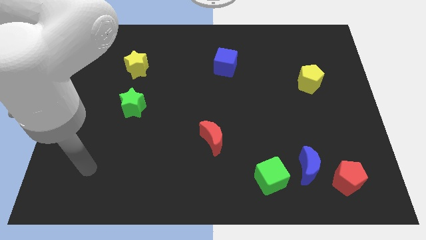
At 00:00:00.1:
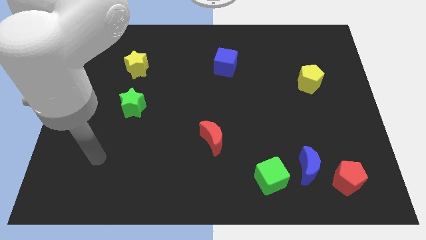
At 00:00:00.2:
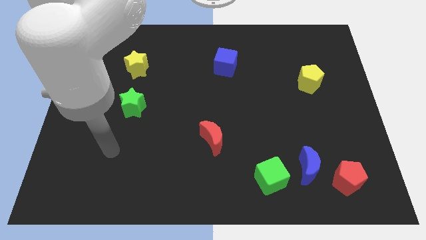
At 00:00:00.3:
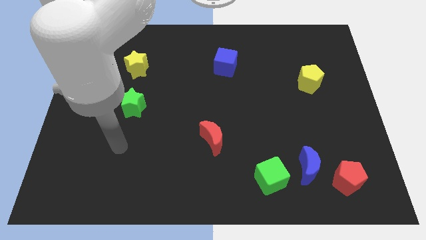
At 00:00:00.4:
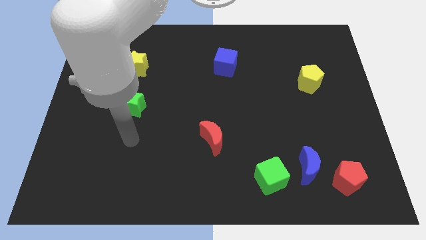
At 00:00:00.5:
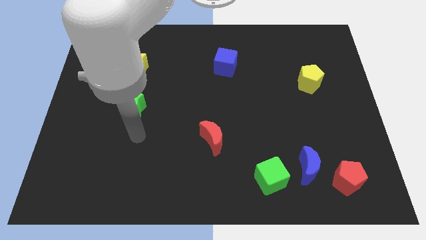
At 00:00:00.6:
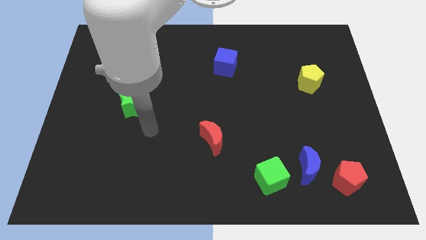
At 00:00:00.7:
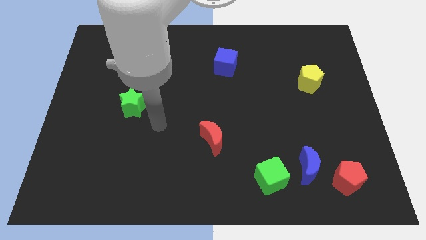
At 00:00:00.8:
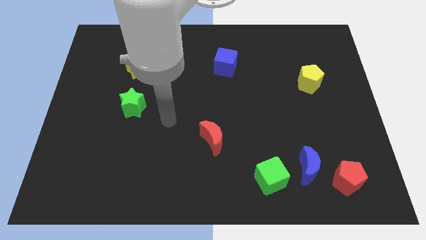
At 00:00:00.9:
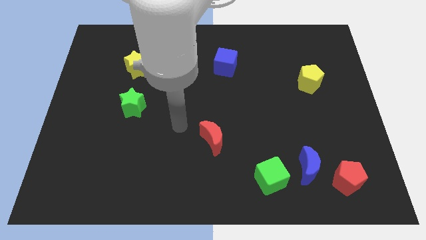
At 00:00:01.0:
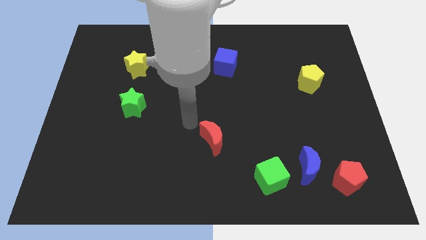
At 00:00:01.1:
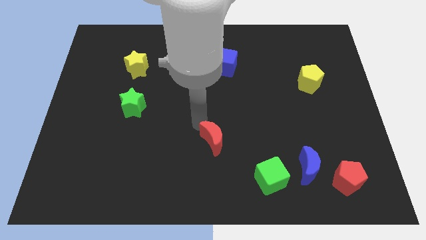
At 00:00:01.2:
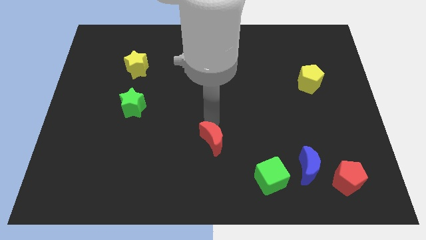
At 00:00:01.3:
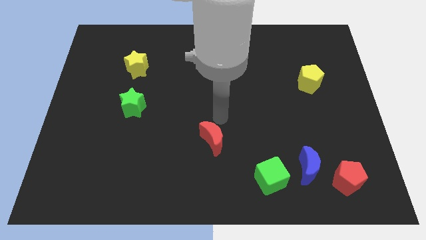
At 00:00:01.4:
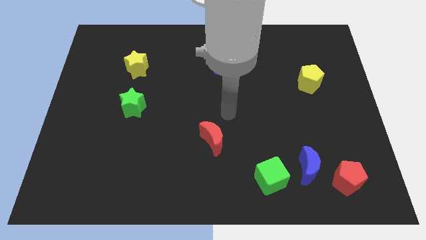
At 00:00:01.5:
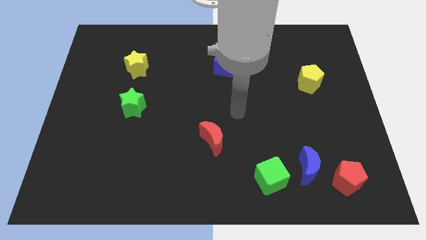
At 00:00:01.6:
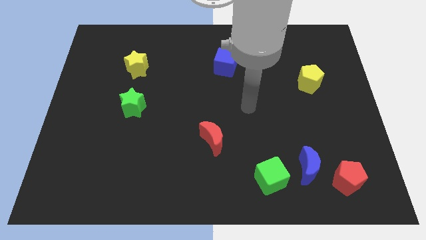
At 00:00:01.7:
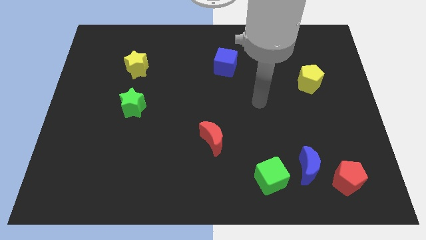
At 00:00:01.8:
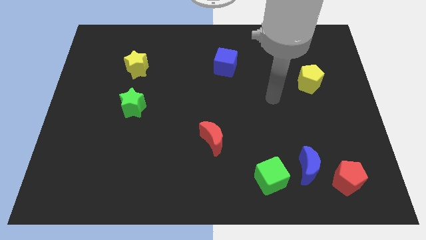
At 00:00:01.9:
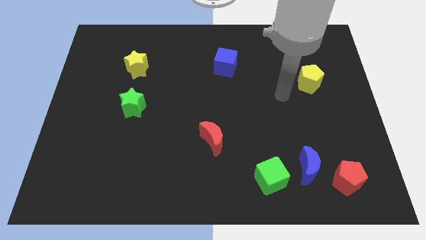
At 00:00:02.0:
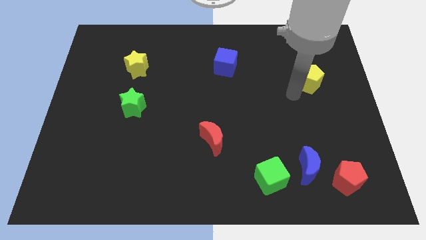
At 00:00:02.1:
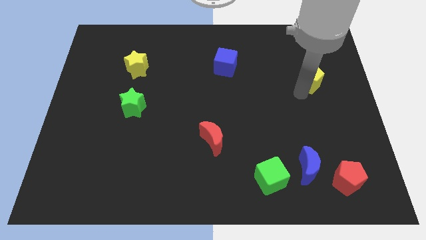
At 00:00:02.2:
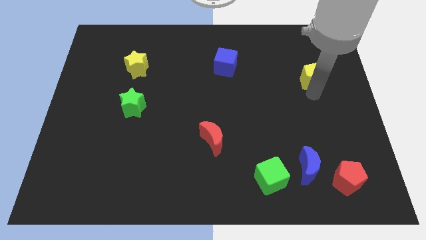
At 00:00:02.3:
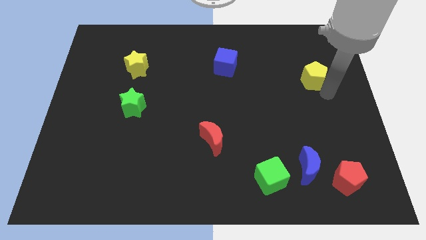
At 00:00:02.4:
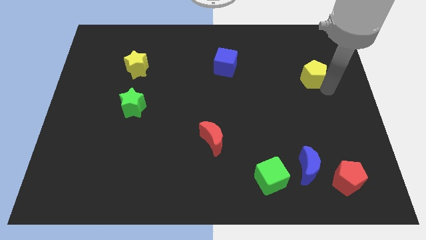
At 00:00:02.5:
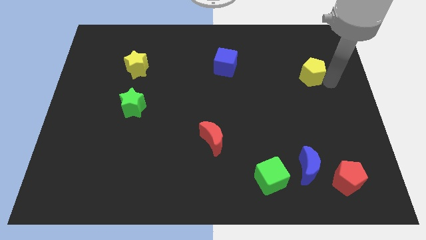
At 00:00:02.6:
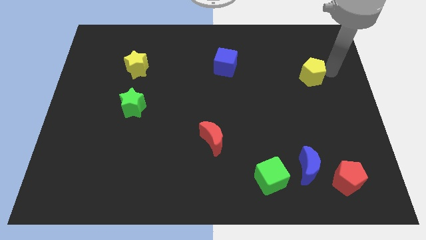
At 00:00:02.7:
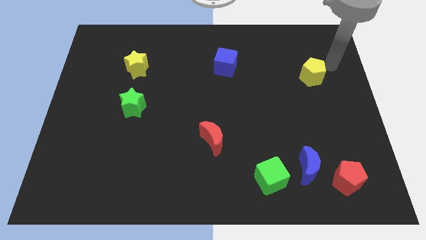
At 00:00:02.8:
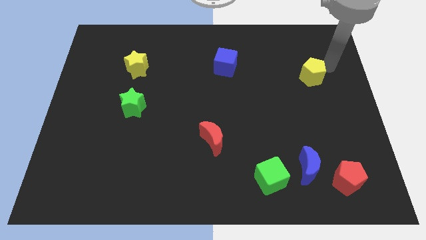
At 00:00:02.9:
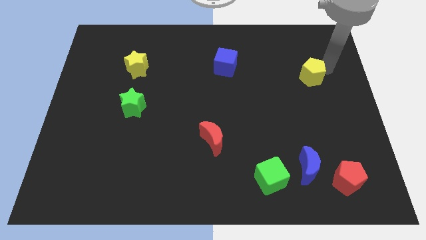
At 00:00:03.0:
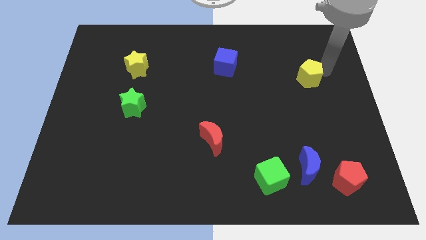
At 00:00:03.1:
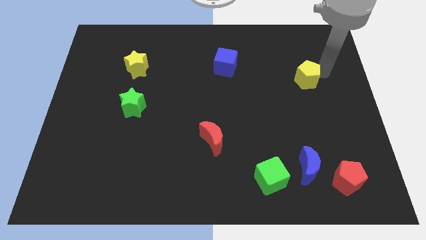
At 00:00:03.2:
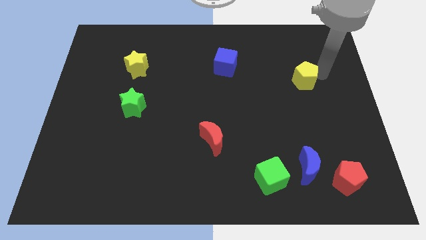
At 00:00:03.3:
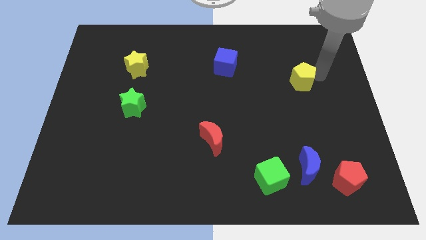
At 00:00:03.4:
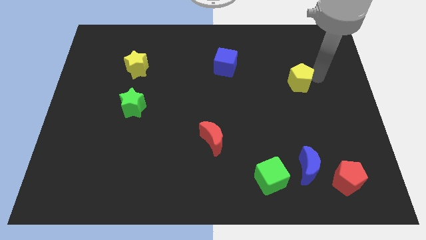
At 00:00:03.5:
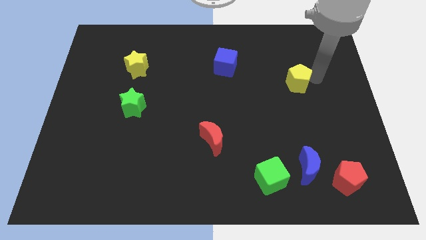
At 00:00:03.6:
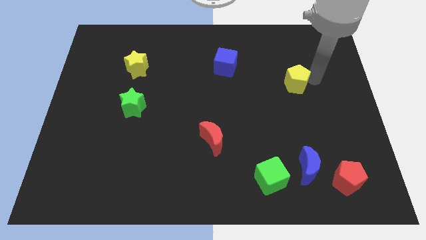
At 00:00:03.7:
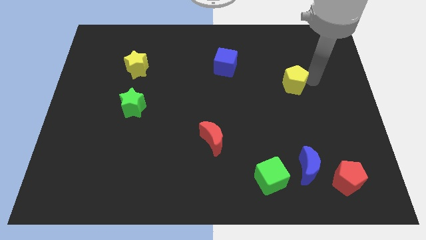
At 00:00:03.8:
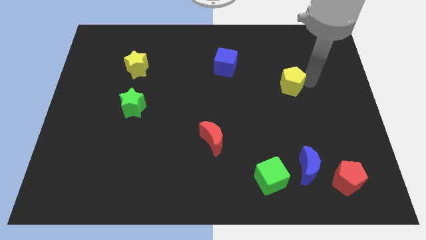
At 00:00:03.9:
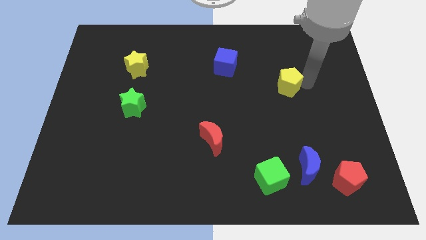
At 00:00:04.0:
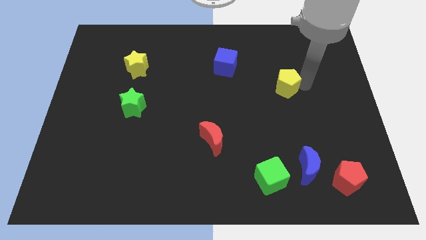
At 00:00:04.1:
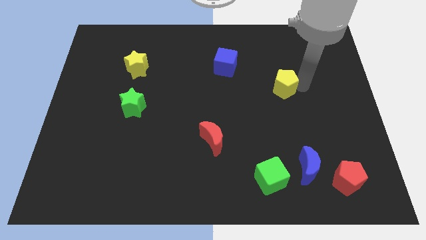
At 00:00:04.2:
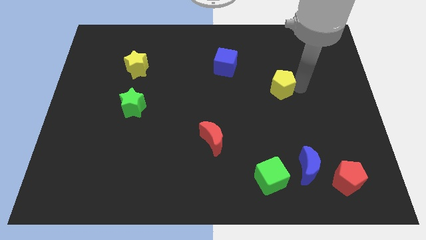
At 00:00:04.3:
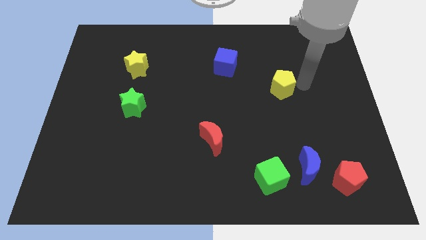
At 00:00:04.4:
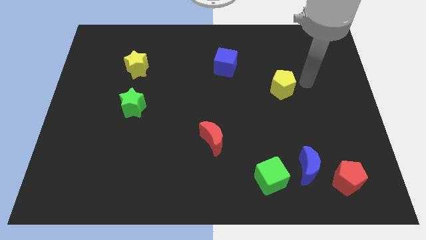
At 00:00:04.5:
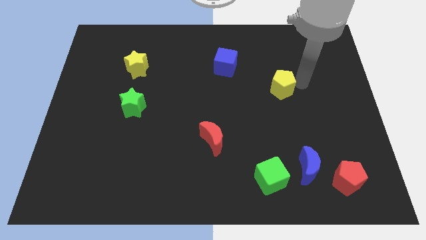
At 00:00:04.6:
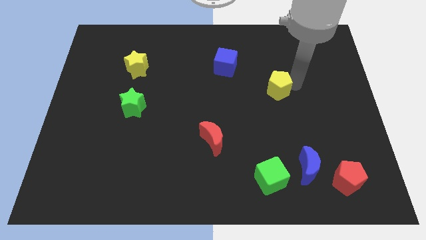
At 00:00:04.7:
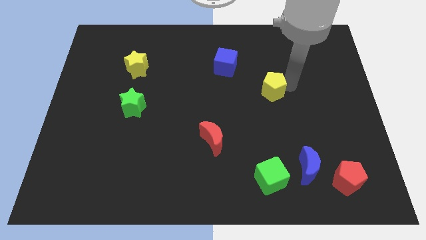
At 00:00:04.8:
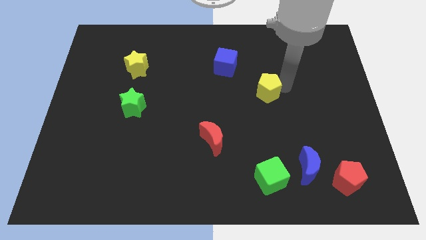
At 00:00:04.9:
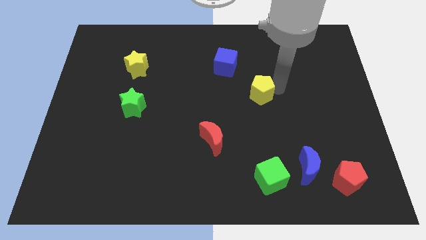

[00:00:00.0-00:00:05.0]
move the yellow pentagon to the center

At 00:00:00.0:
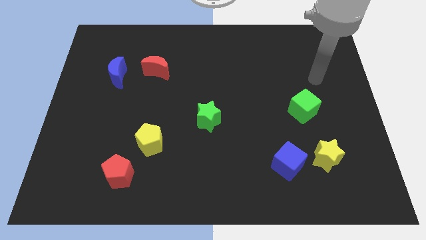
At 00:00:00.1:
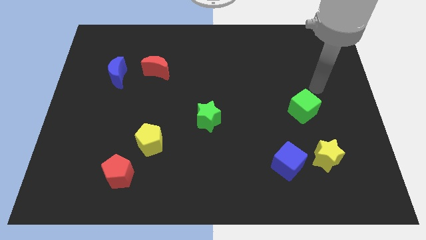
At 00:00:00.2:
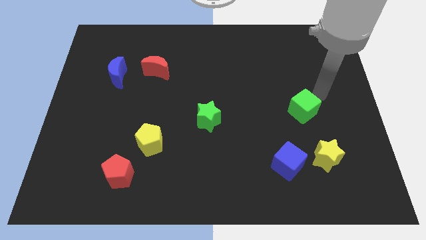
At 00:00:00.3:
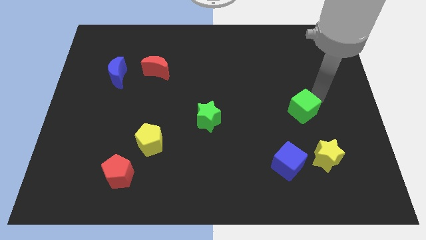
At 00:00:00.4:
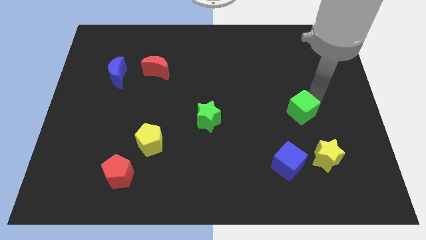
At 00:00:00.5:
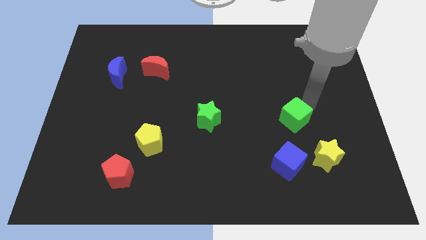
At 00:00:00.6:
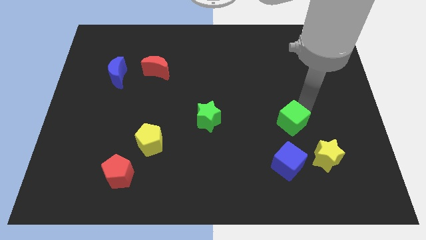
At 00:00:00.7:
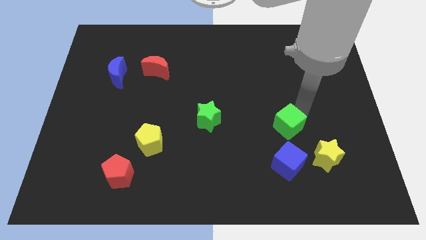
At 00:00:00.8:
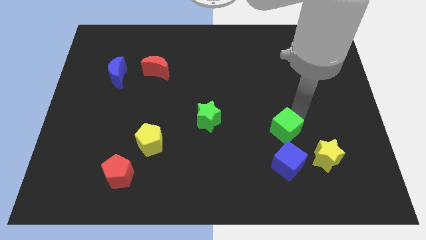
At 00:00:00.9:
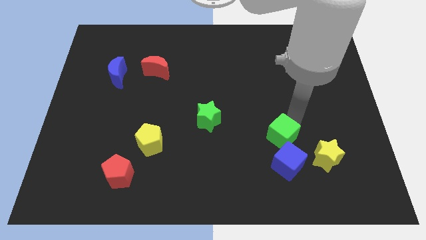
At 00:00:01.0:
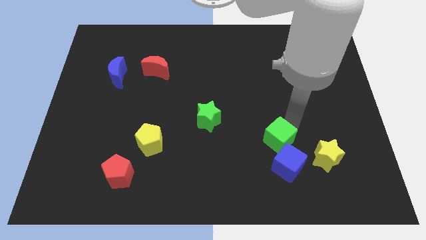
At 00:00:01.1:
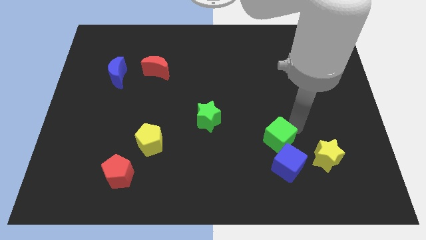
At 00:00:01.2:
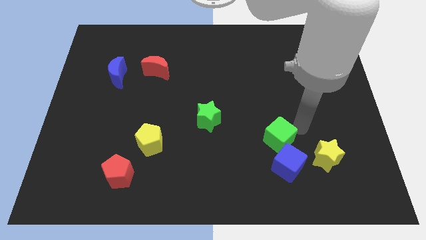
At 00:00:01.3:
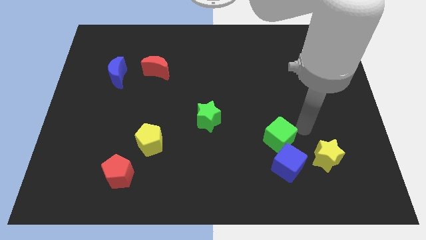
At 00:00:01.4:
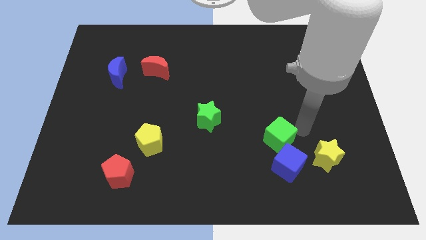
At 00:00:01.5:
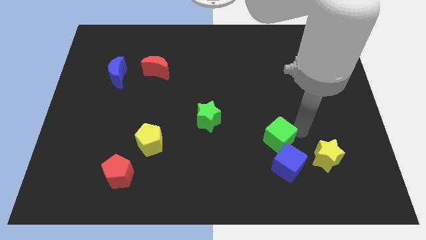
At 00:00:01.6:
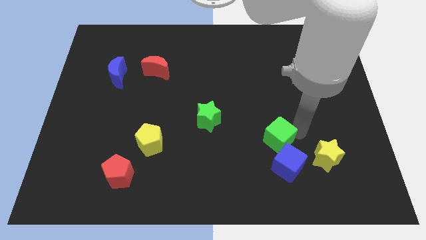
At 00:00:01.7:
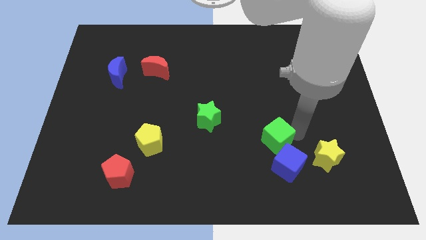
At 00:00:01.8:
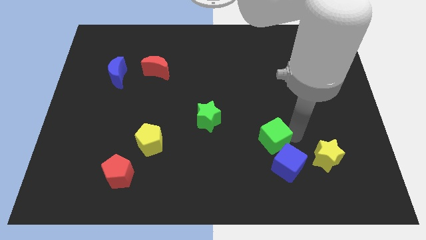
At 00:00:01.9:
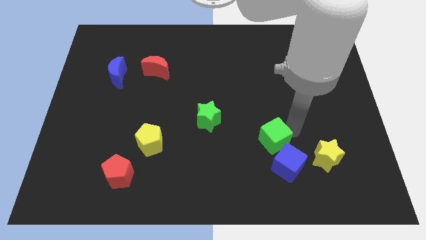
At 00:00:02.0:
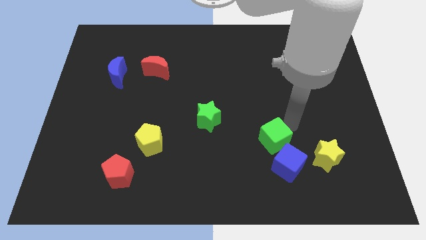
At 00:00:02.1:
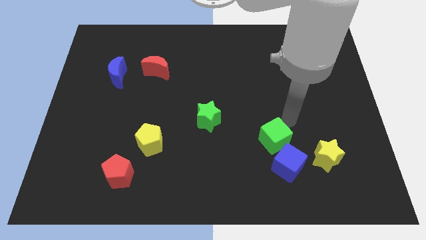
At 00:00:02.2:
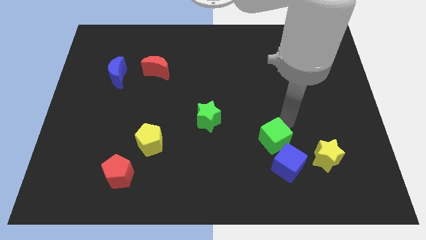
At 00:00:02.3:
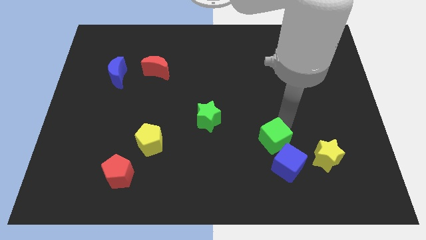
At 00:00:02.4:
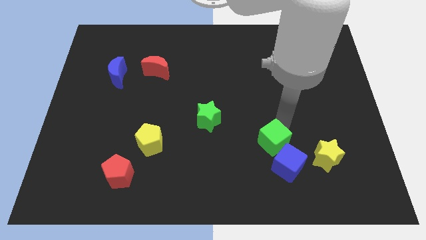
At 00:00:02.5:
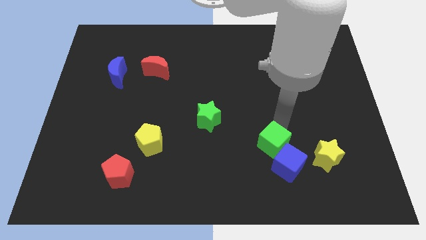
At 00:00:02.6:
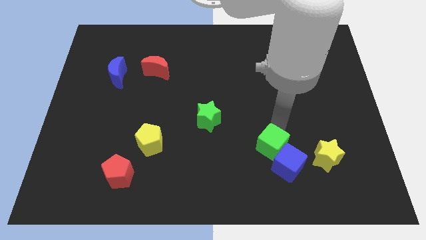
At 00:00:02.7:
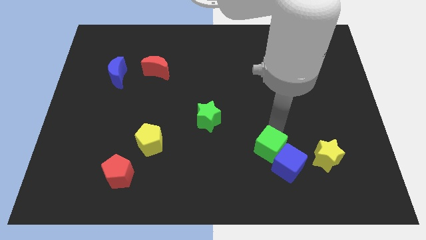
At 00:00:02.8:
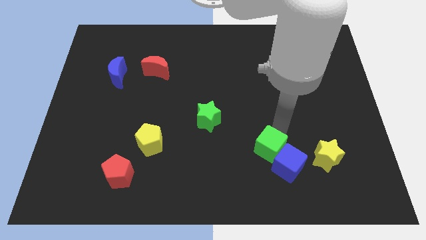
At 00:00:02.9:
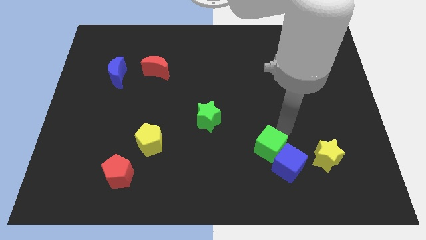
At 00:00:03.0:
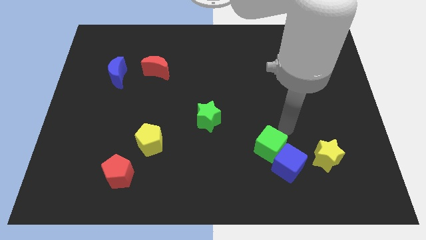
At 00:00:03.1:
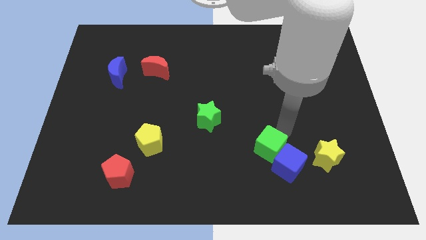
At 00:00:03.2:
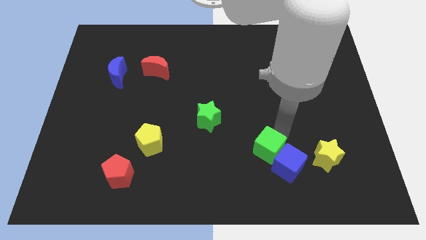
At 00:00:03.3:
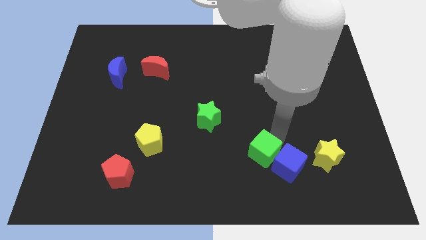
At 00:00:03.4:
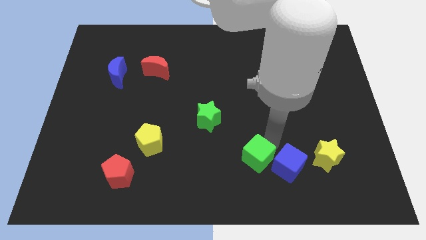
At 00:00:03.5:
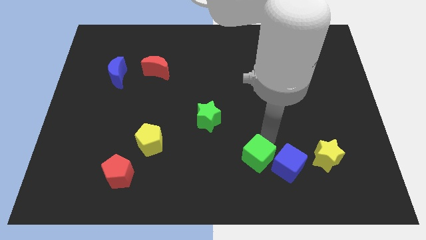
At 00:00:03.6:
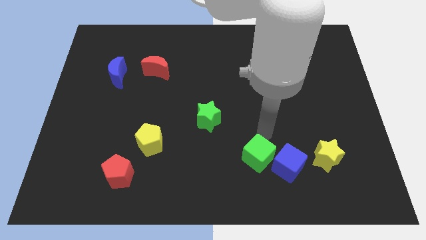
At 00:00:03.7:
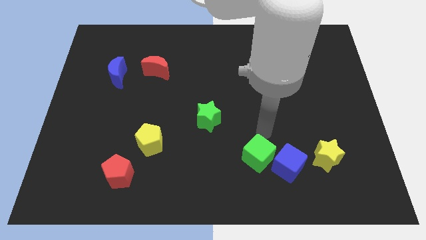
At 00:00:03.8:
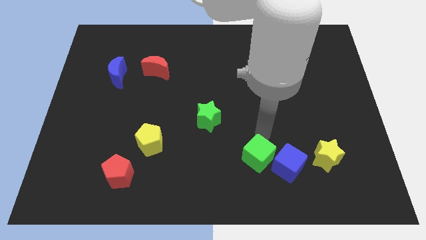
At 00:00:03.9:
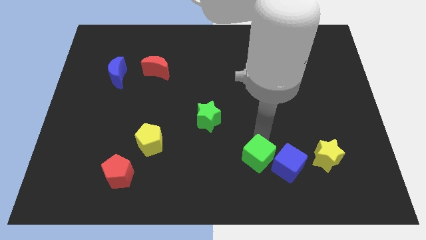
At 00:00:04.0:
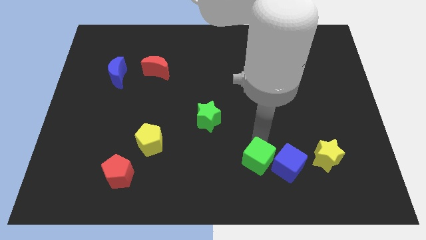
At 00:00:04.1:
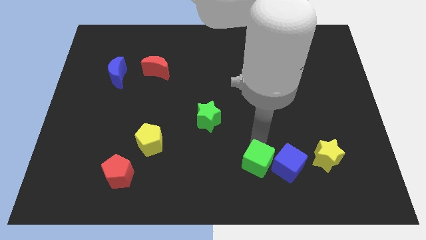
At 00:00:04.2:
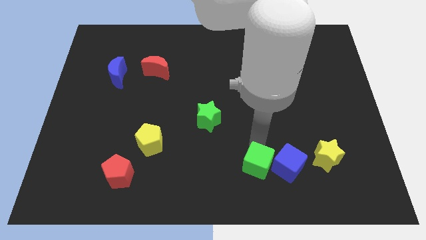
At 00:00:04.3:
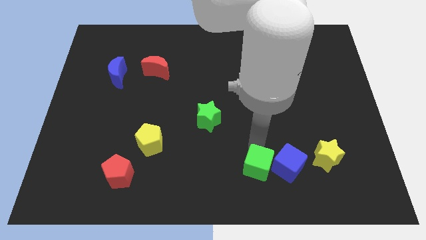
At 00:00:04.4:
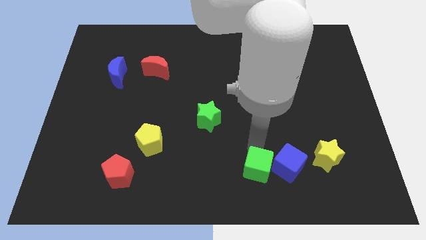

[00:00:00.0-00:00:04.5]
push the green cube to the bottom side
